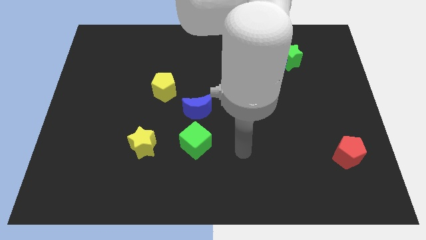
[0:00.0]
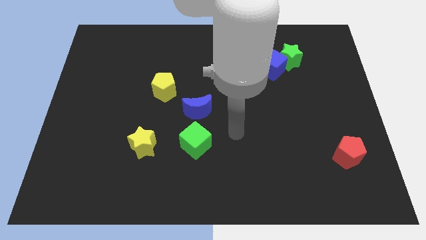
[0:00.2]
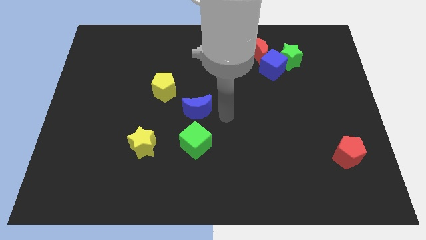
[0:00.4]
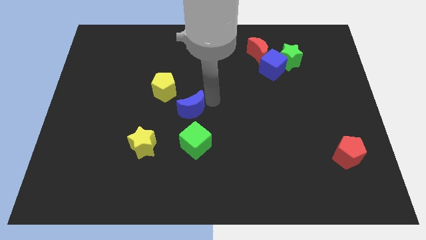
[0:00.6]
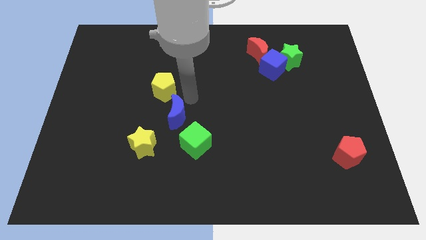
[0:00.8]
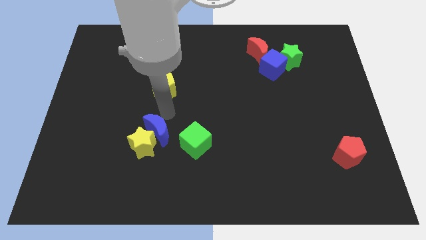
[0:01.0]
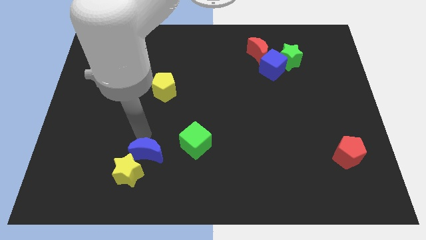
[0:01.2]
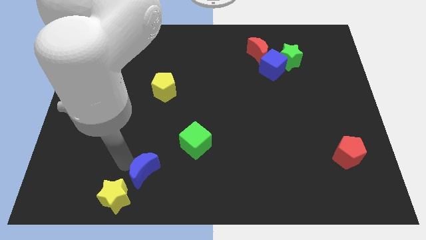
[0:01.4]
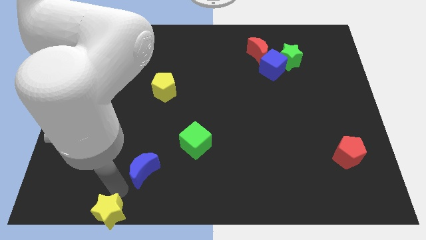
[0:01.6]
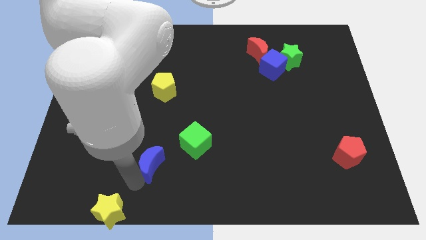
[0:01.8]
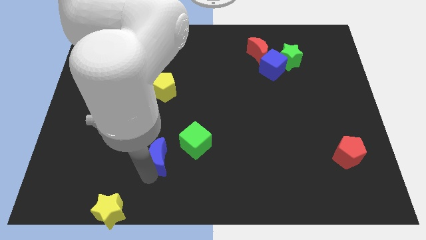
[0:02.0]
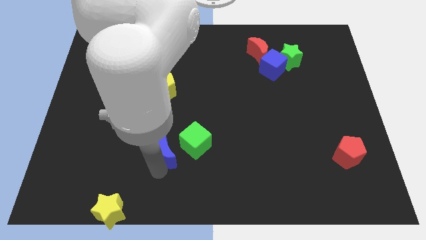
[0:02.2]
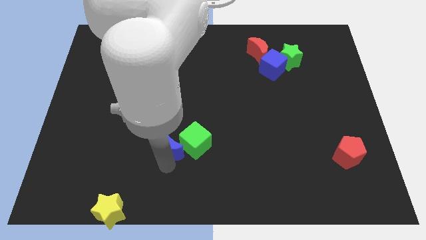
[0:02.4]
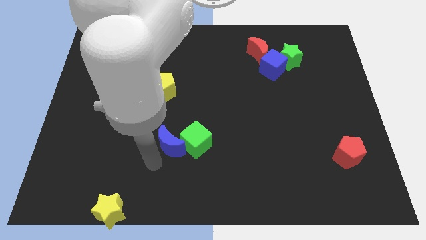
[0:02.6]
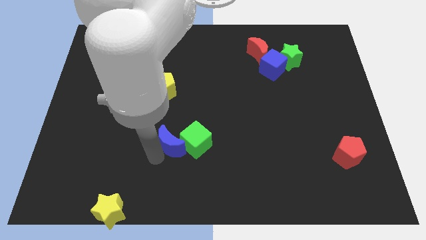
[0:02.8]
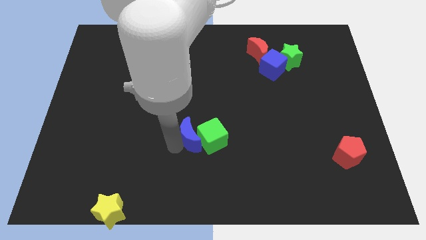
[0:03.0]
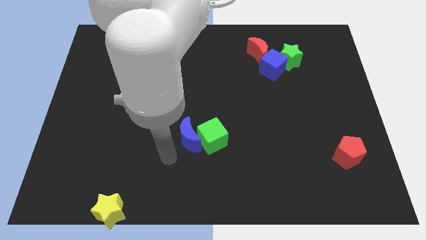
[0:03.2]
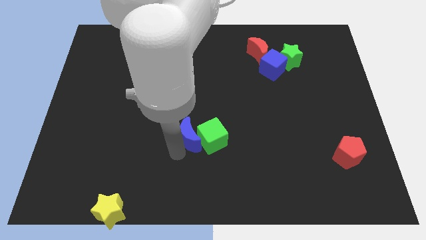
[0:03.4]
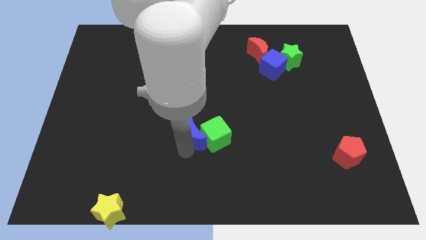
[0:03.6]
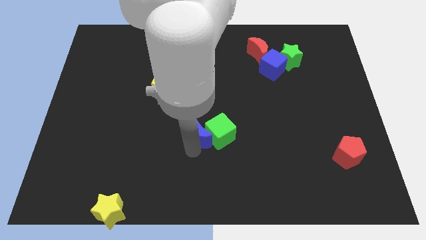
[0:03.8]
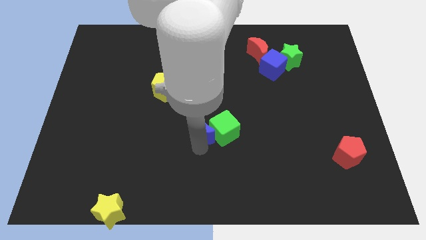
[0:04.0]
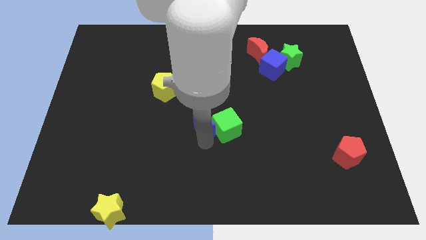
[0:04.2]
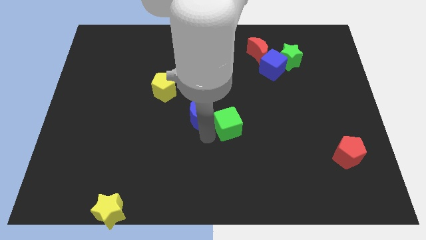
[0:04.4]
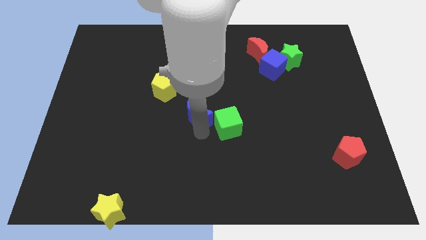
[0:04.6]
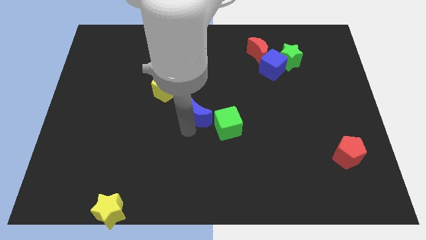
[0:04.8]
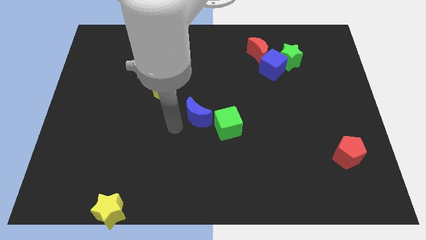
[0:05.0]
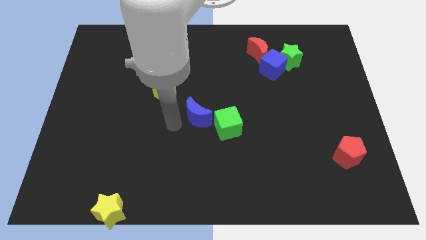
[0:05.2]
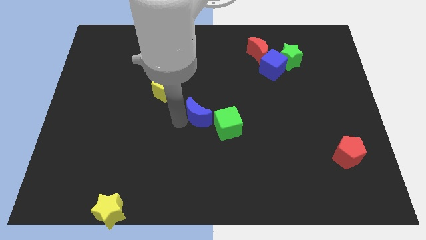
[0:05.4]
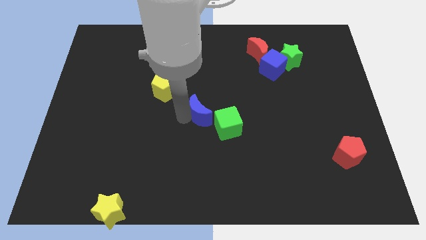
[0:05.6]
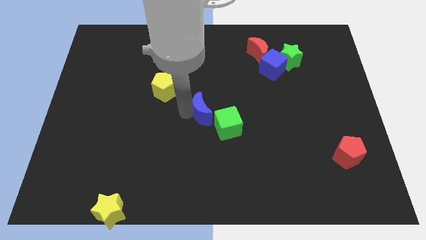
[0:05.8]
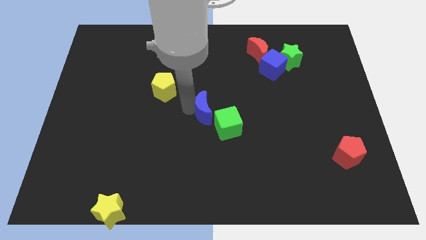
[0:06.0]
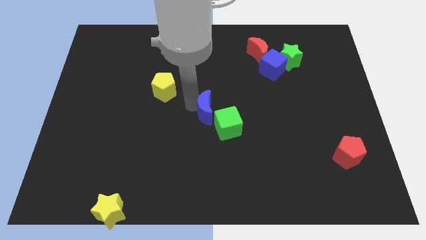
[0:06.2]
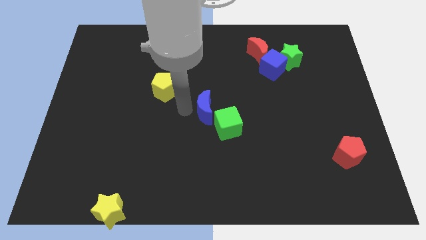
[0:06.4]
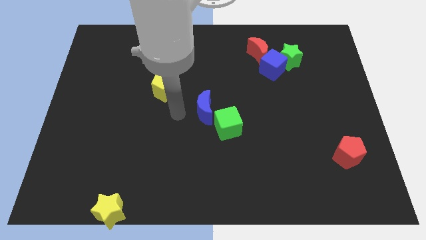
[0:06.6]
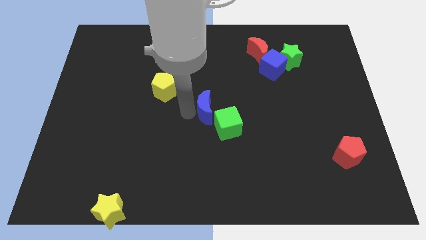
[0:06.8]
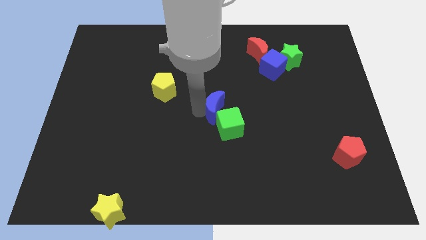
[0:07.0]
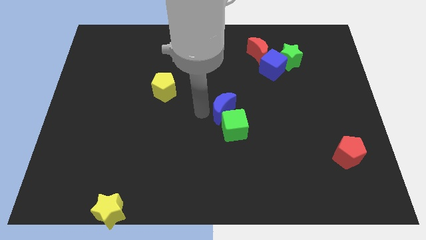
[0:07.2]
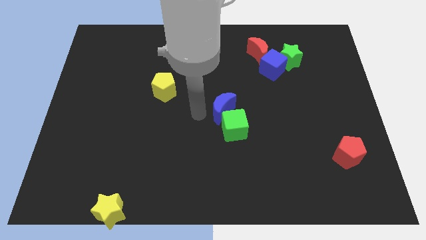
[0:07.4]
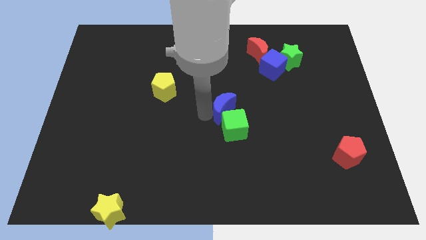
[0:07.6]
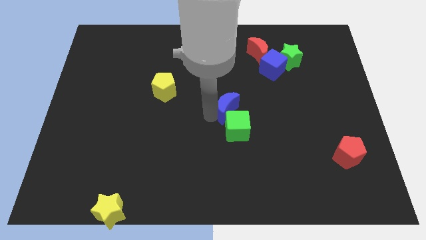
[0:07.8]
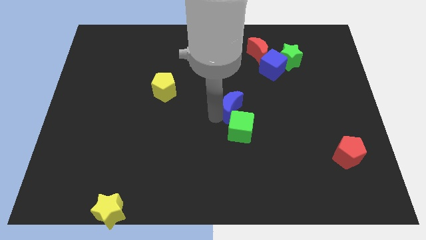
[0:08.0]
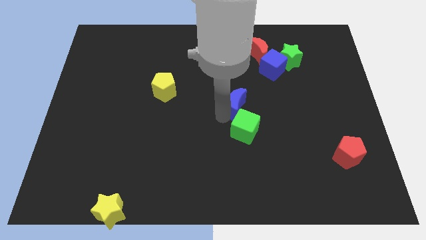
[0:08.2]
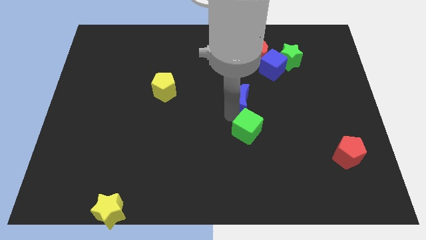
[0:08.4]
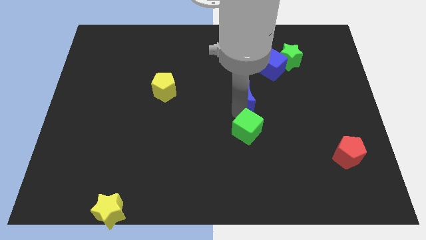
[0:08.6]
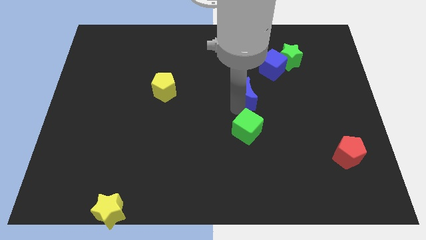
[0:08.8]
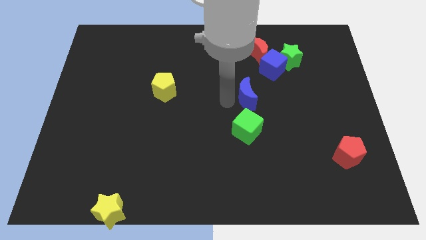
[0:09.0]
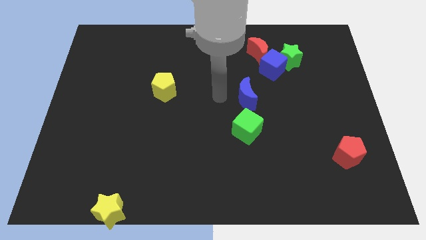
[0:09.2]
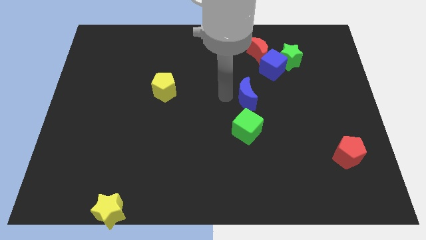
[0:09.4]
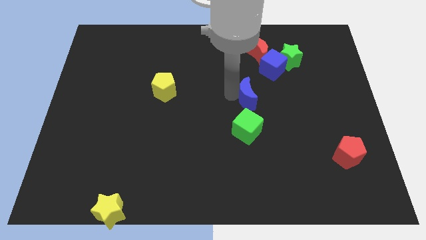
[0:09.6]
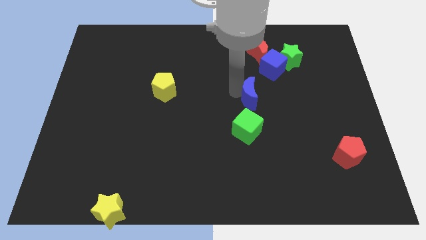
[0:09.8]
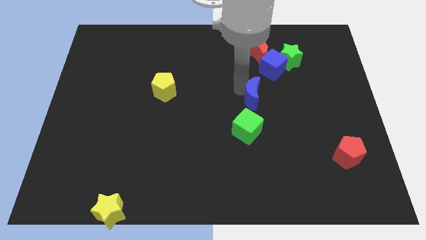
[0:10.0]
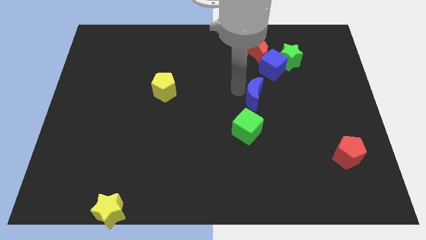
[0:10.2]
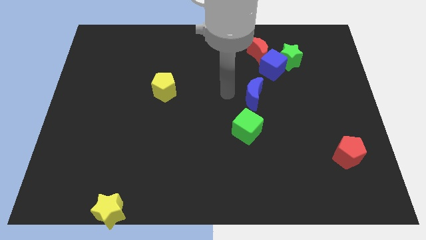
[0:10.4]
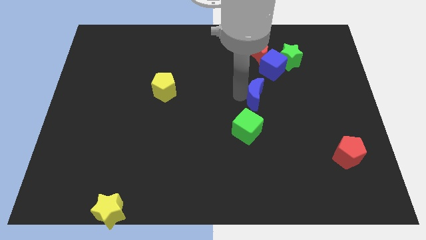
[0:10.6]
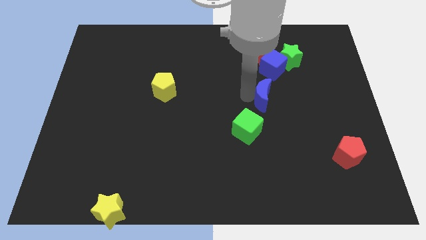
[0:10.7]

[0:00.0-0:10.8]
move the blue moon to the bottom side of the blue cube

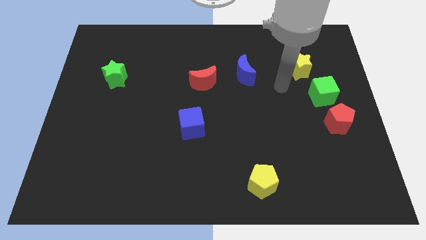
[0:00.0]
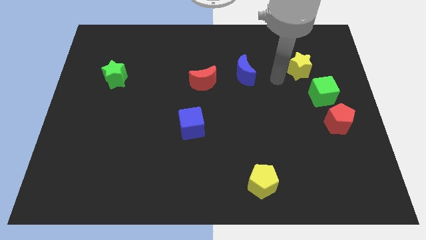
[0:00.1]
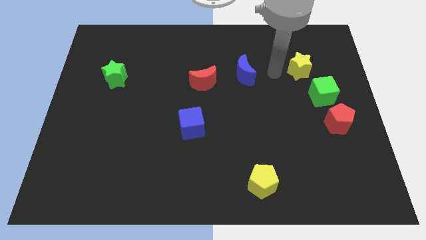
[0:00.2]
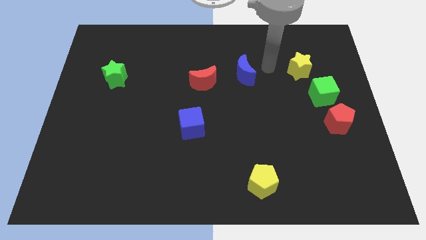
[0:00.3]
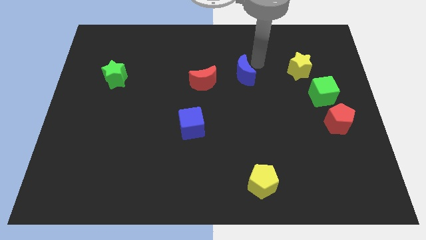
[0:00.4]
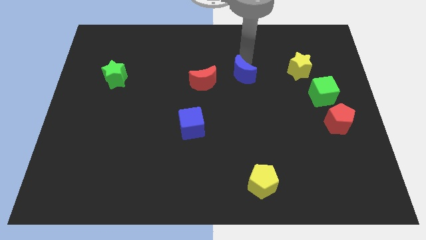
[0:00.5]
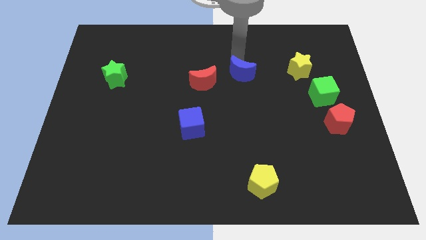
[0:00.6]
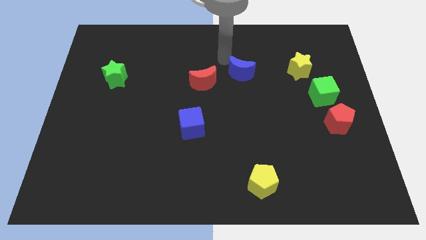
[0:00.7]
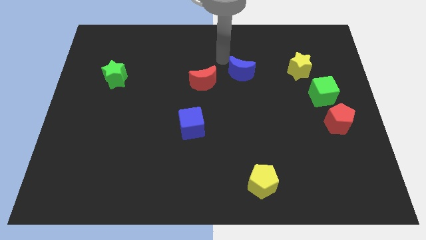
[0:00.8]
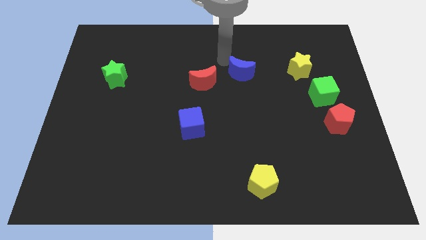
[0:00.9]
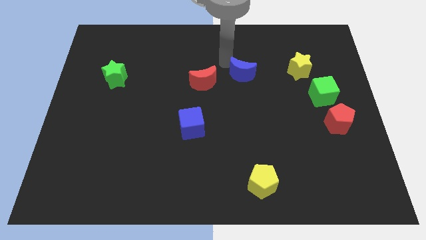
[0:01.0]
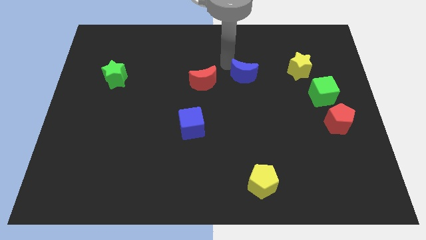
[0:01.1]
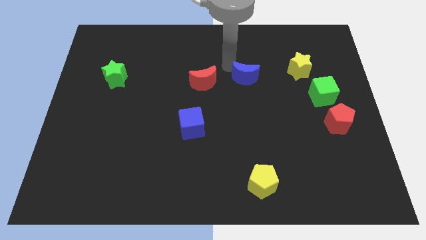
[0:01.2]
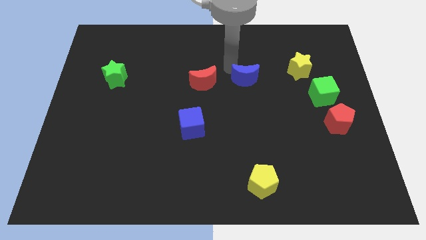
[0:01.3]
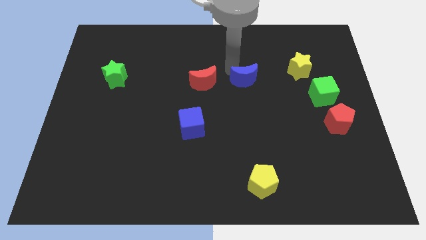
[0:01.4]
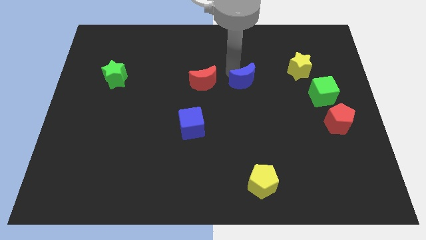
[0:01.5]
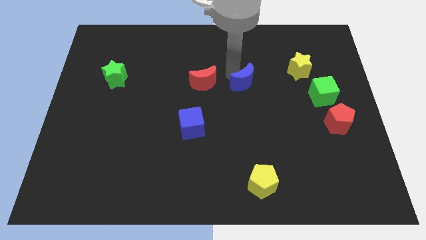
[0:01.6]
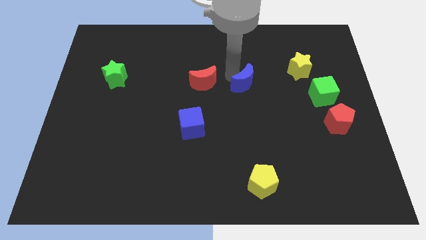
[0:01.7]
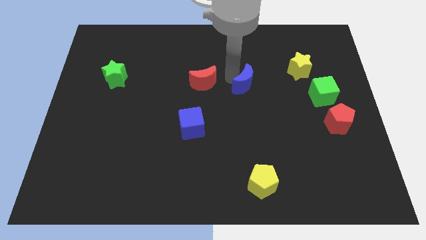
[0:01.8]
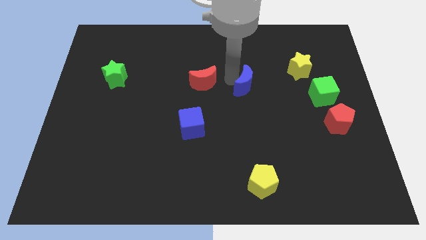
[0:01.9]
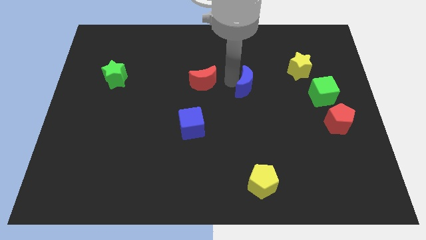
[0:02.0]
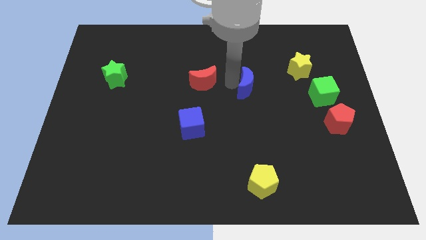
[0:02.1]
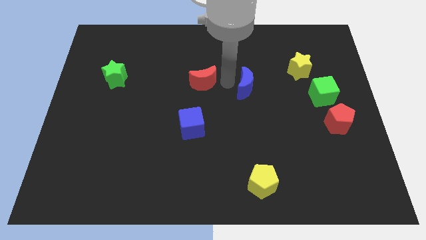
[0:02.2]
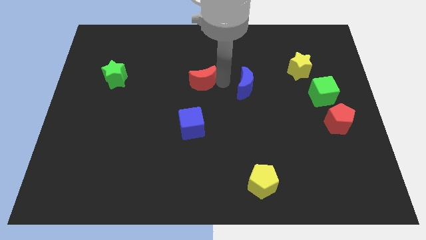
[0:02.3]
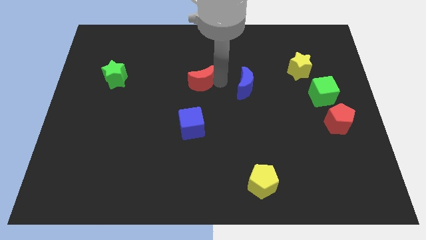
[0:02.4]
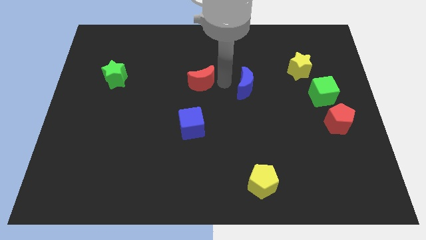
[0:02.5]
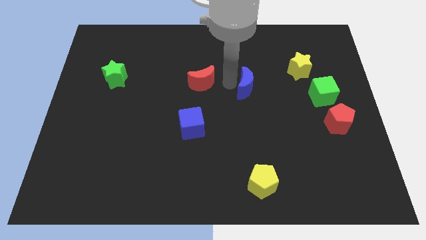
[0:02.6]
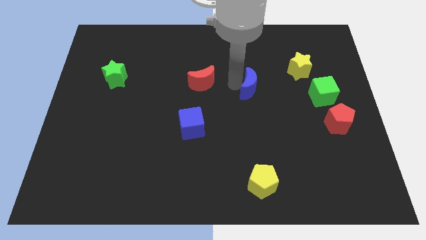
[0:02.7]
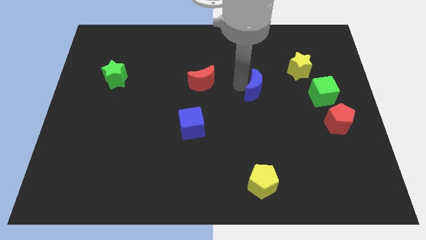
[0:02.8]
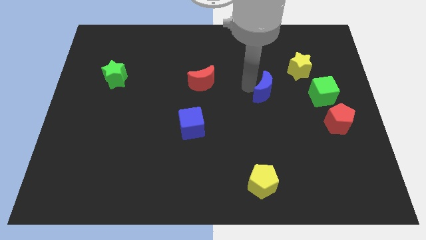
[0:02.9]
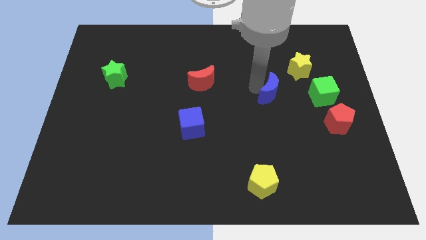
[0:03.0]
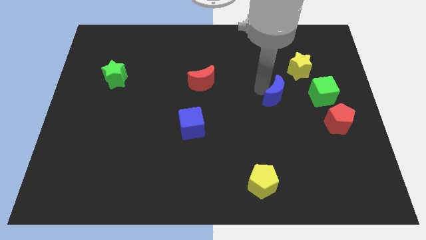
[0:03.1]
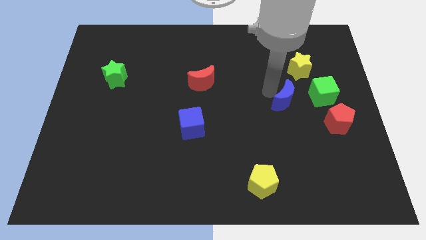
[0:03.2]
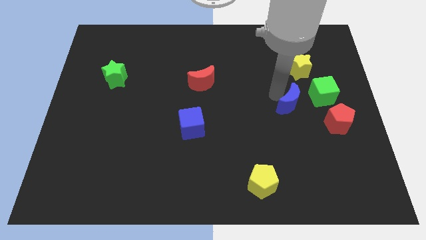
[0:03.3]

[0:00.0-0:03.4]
put the blue moon diagonally down and to the left of the green cube
